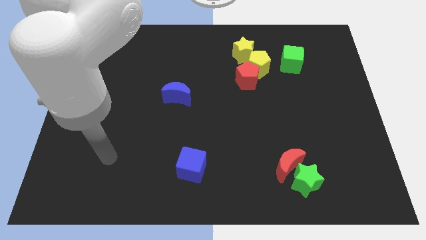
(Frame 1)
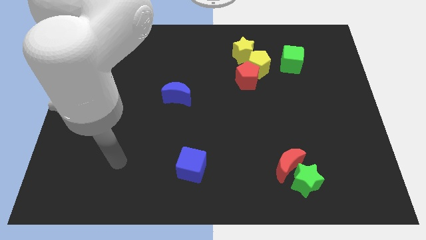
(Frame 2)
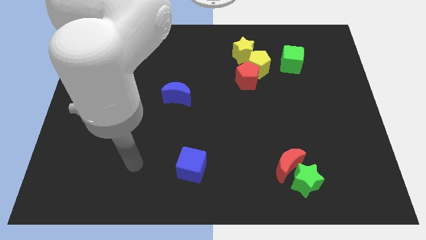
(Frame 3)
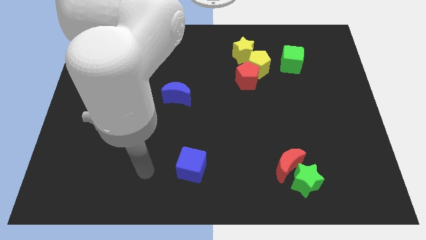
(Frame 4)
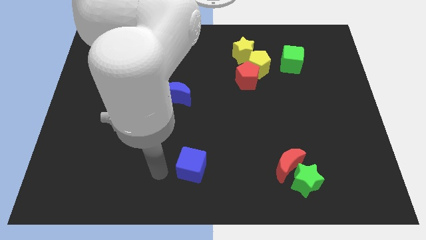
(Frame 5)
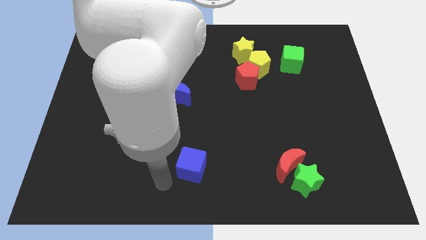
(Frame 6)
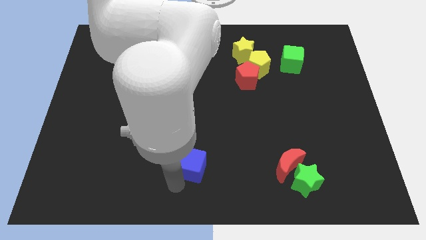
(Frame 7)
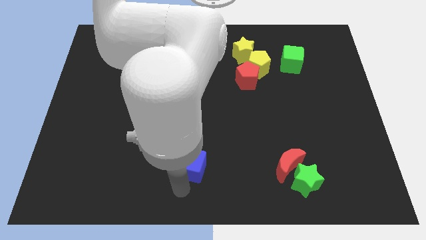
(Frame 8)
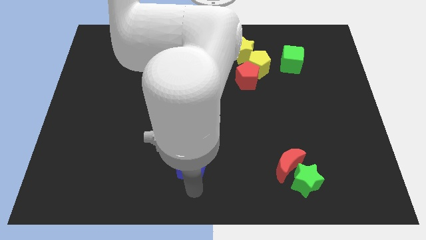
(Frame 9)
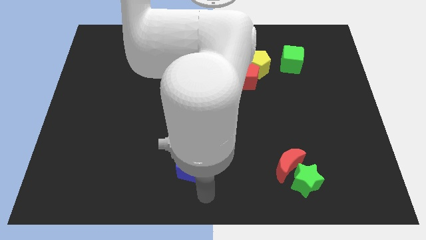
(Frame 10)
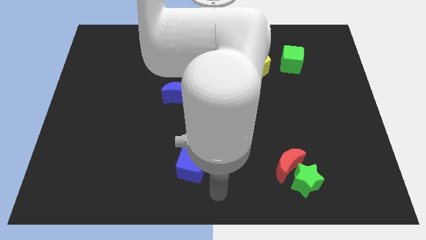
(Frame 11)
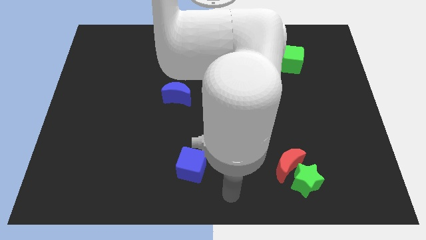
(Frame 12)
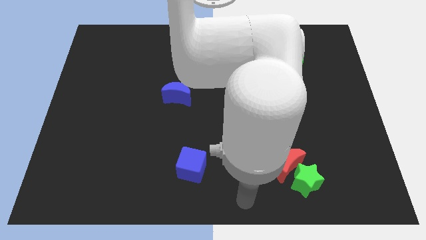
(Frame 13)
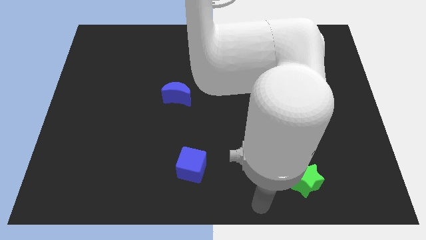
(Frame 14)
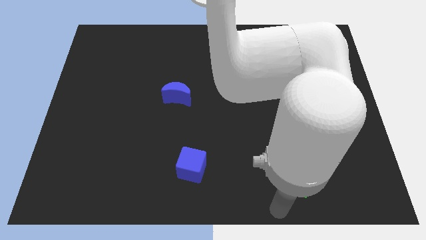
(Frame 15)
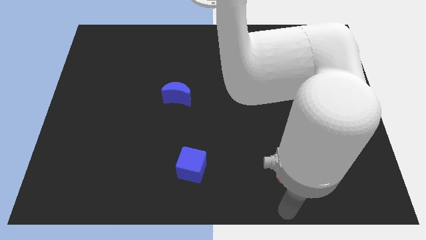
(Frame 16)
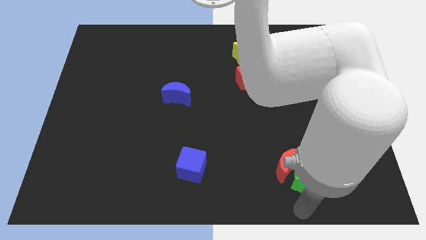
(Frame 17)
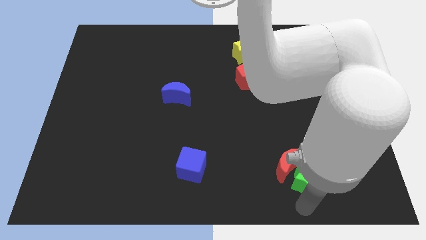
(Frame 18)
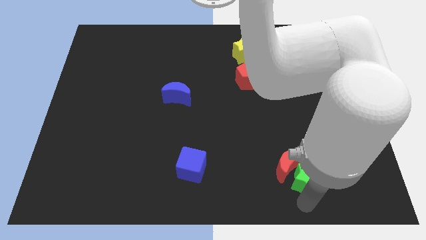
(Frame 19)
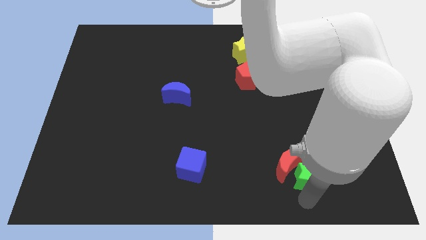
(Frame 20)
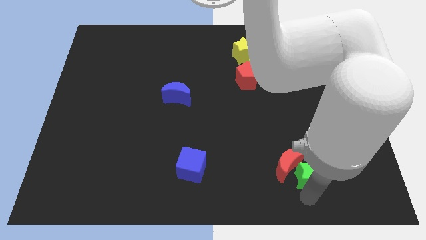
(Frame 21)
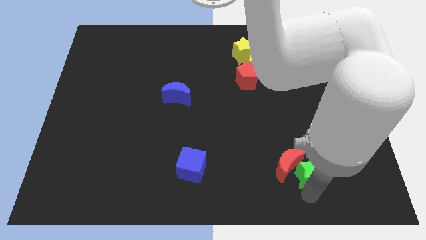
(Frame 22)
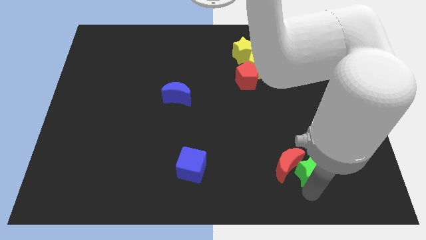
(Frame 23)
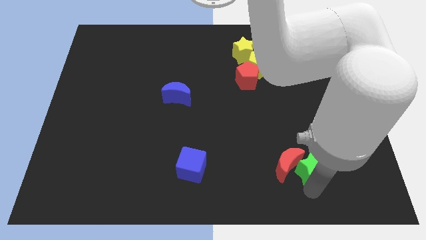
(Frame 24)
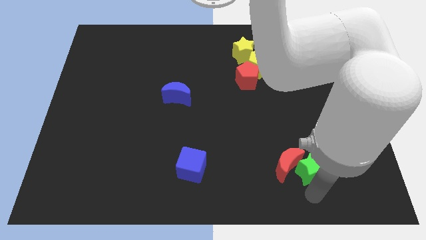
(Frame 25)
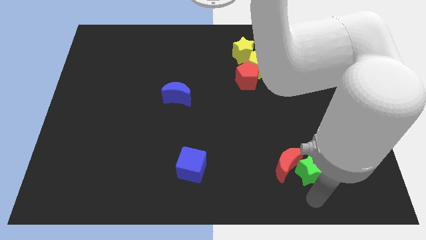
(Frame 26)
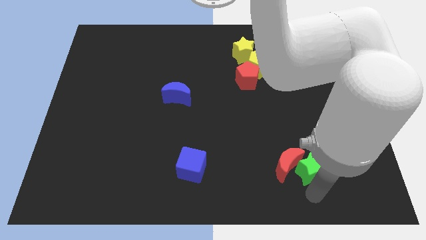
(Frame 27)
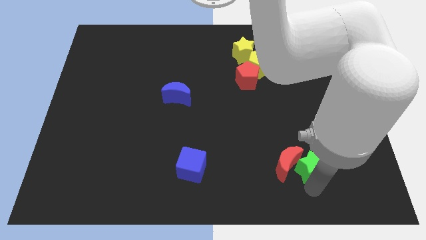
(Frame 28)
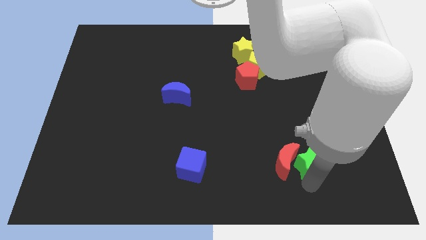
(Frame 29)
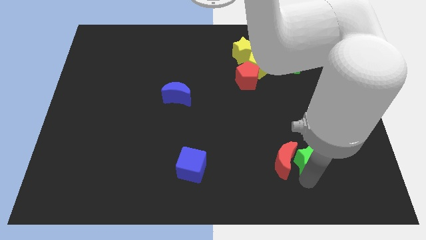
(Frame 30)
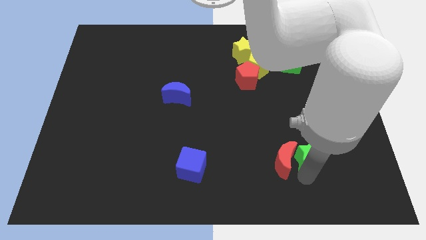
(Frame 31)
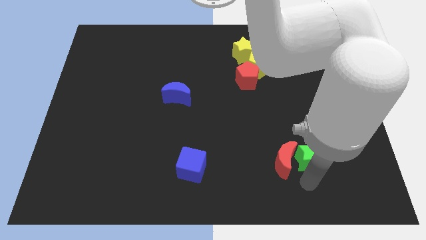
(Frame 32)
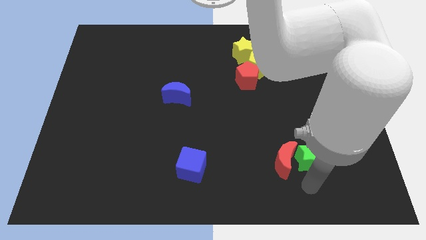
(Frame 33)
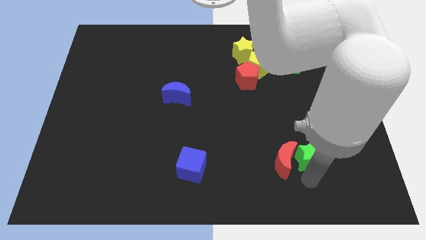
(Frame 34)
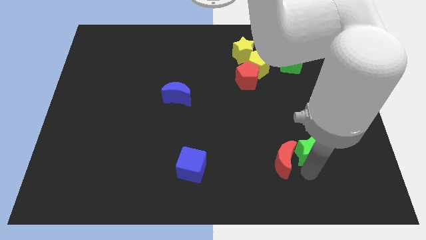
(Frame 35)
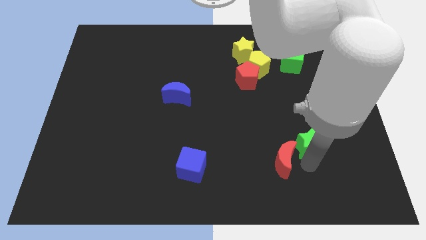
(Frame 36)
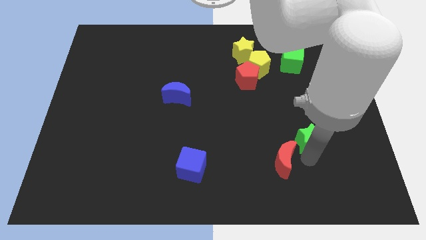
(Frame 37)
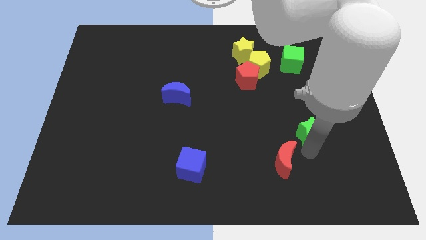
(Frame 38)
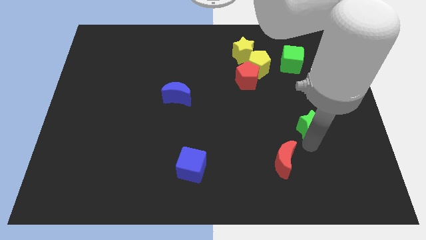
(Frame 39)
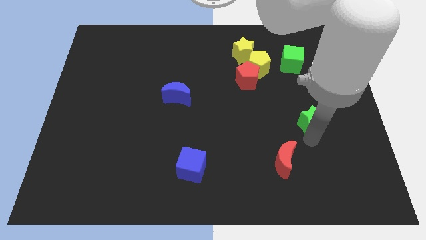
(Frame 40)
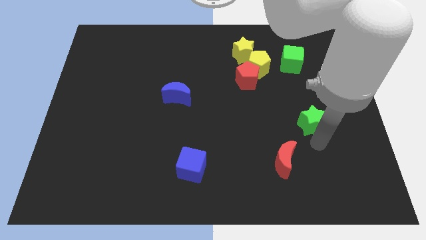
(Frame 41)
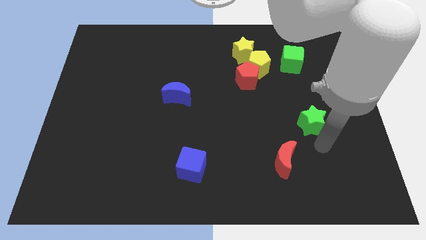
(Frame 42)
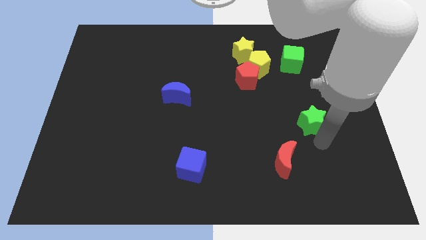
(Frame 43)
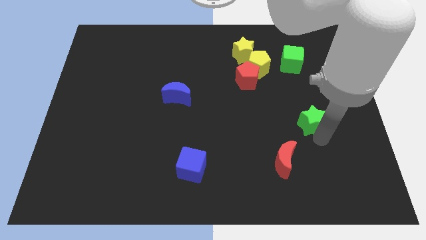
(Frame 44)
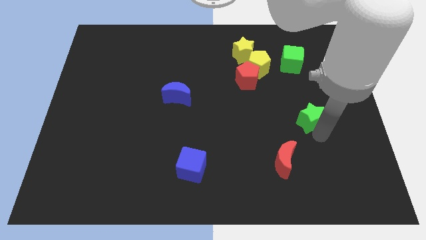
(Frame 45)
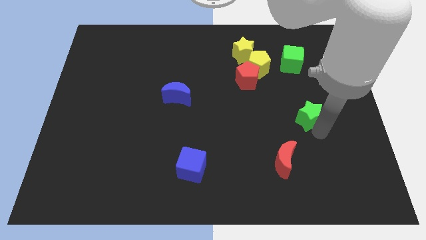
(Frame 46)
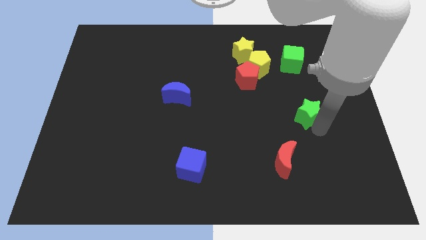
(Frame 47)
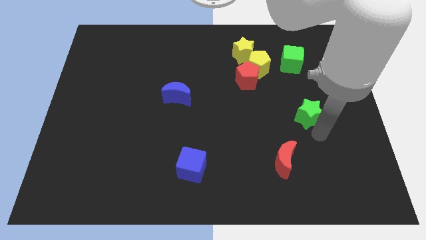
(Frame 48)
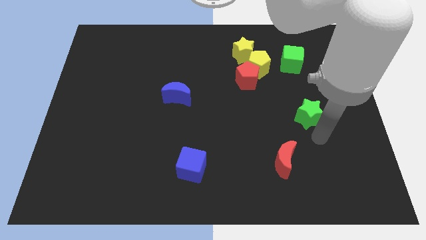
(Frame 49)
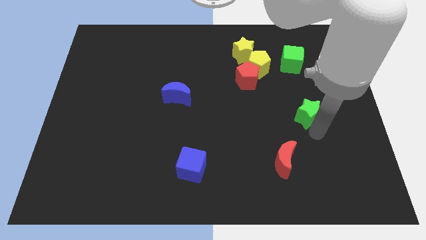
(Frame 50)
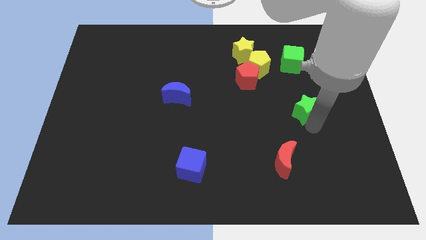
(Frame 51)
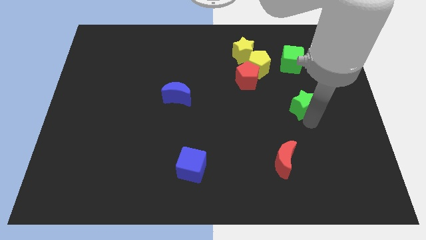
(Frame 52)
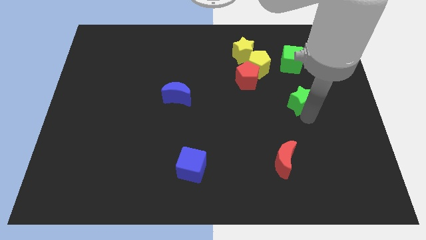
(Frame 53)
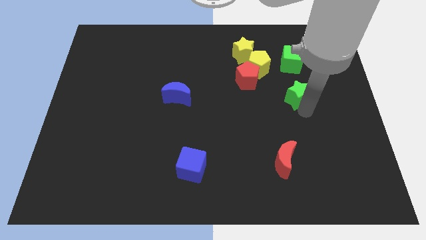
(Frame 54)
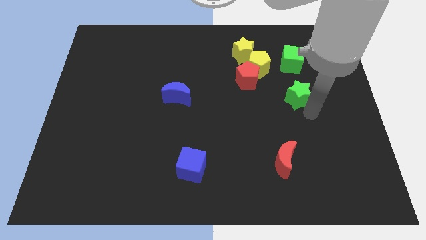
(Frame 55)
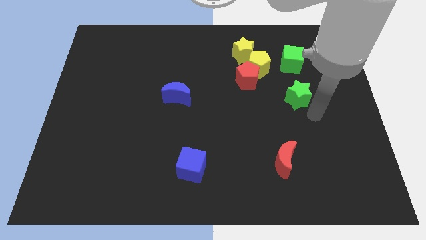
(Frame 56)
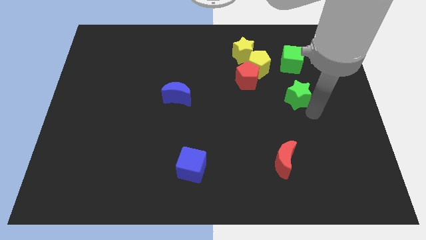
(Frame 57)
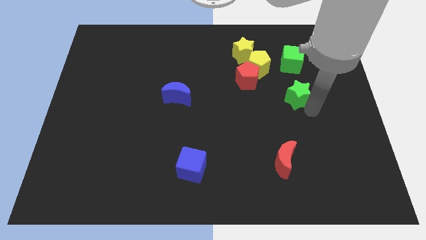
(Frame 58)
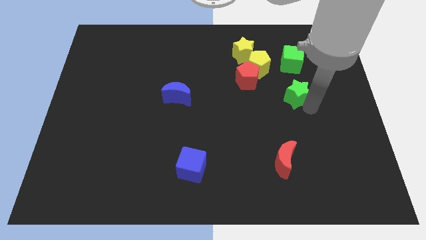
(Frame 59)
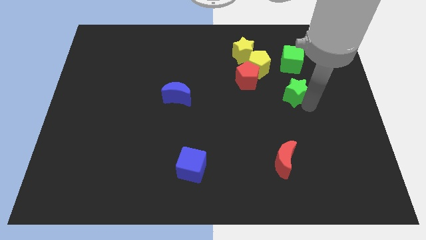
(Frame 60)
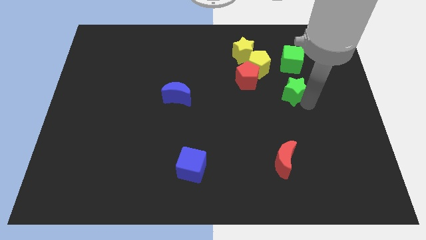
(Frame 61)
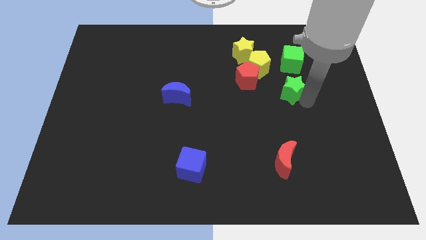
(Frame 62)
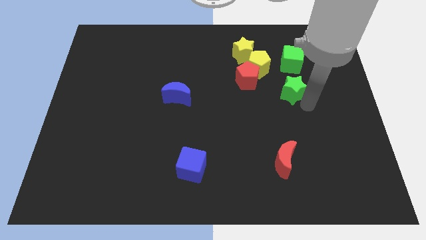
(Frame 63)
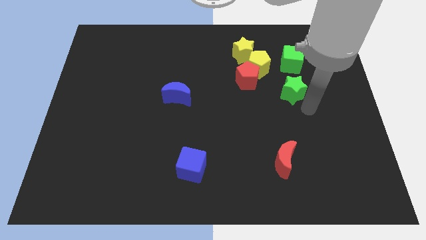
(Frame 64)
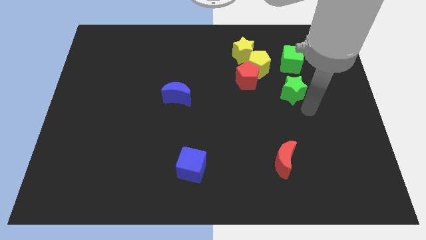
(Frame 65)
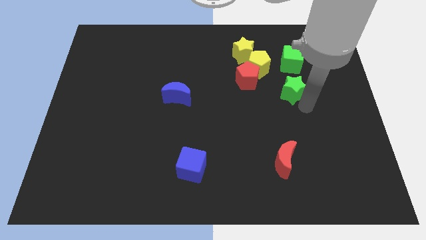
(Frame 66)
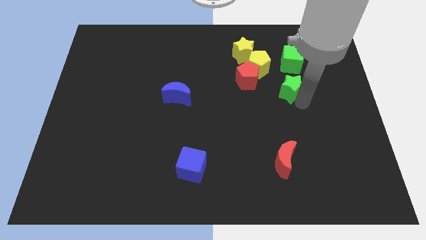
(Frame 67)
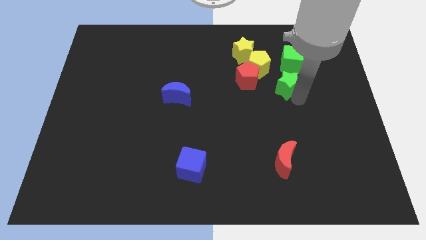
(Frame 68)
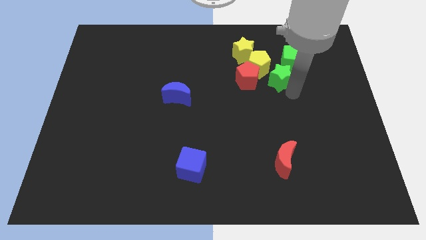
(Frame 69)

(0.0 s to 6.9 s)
move the green star diagonally down and to the right of the yellow star
